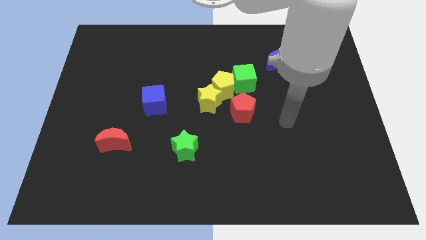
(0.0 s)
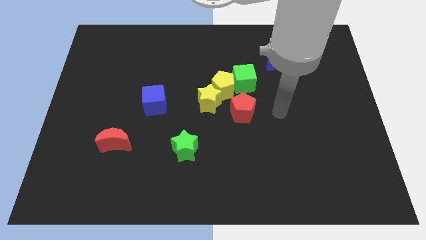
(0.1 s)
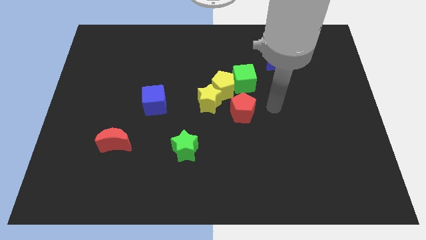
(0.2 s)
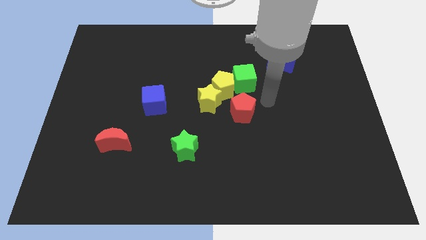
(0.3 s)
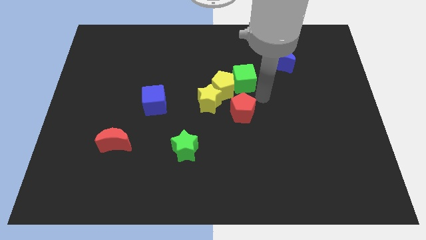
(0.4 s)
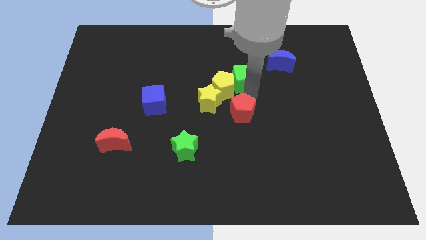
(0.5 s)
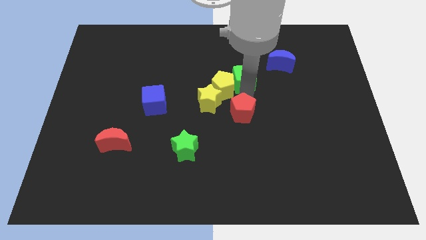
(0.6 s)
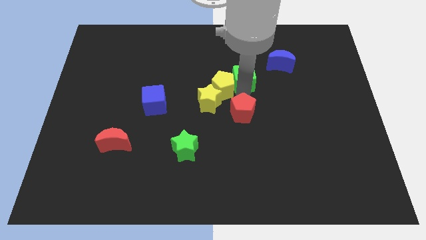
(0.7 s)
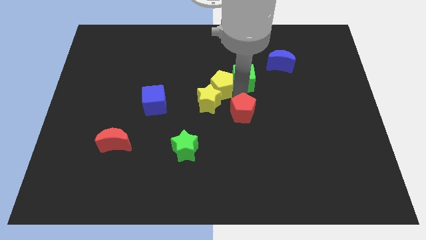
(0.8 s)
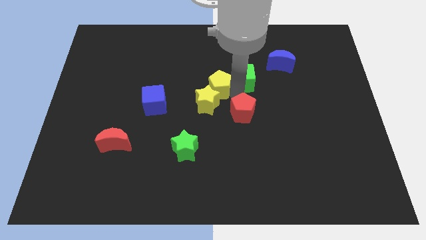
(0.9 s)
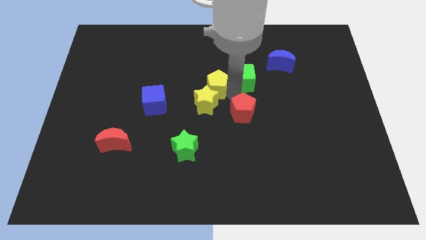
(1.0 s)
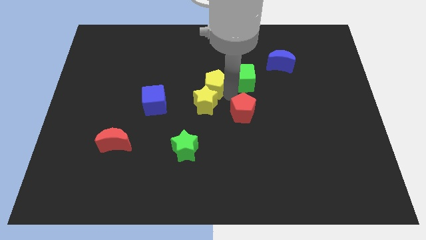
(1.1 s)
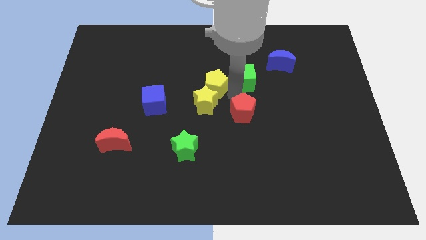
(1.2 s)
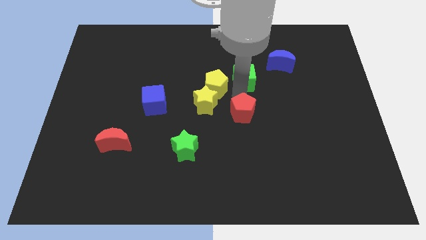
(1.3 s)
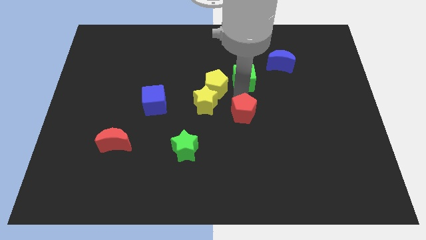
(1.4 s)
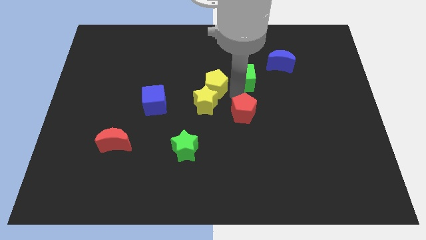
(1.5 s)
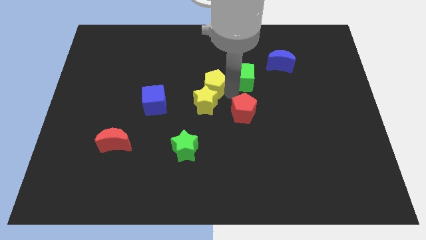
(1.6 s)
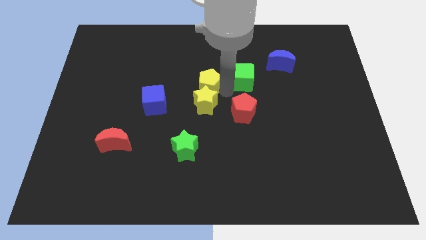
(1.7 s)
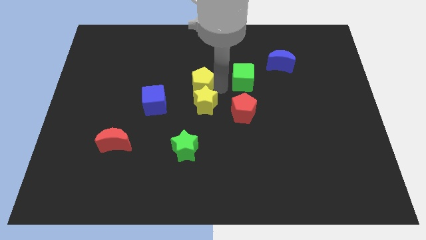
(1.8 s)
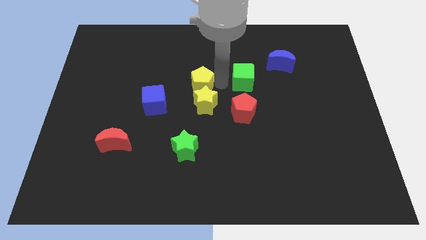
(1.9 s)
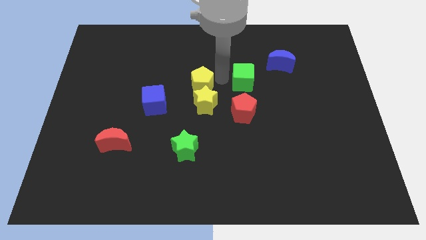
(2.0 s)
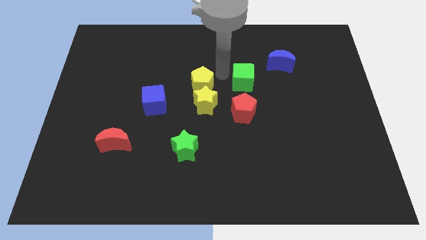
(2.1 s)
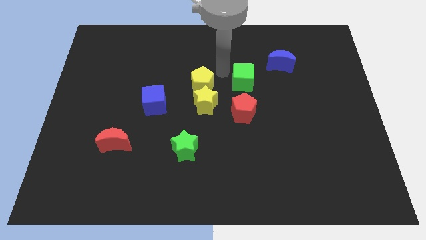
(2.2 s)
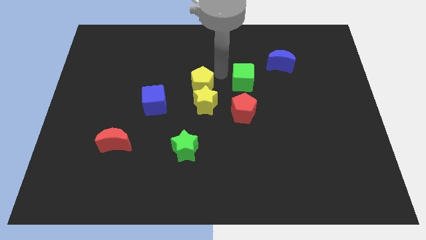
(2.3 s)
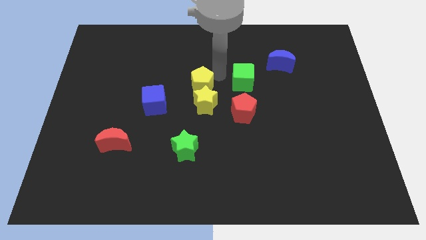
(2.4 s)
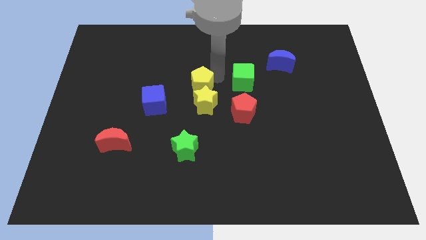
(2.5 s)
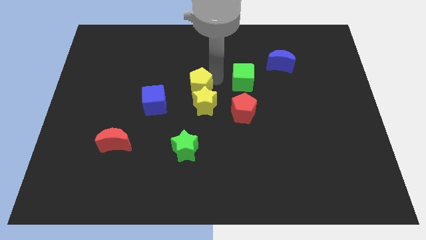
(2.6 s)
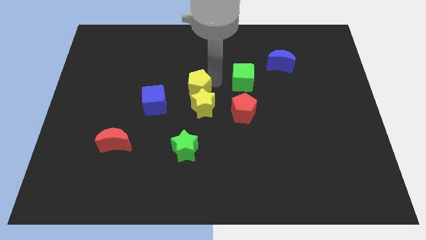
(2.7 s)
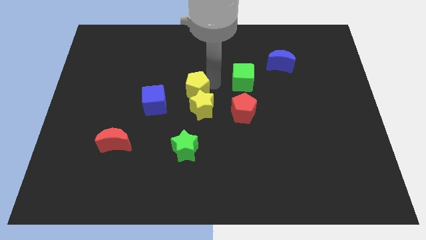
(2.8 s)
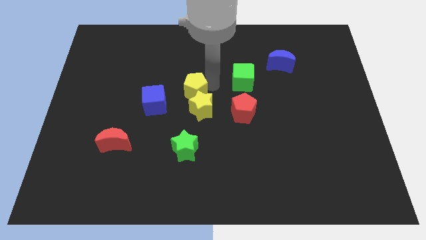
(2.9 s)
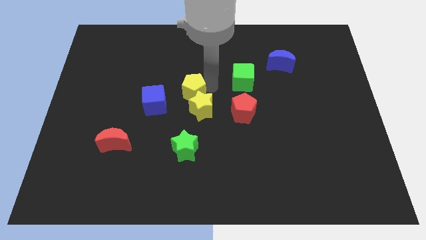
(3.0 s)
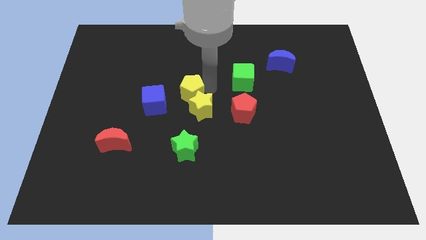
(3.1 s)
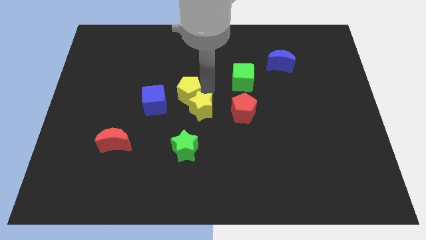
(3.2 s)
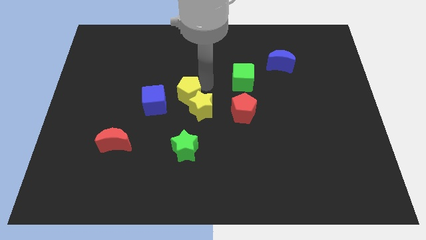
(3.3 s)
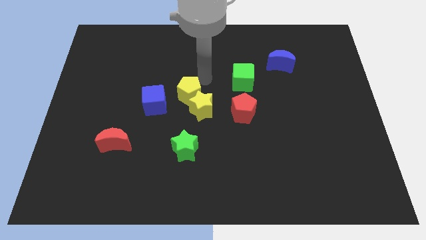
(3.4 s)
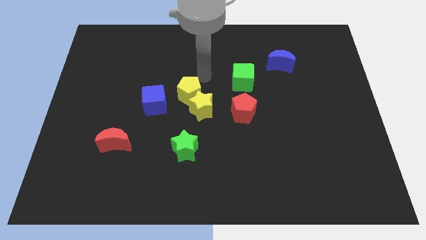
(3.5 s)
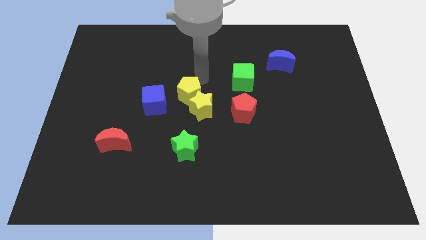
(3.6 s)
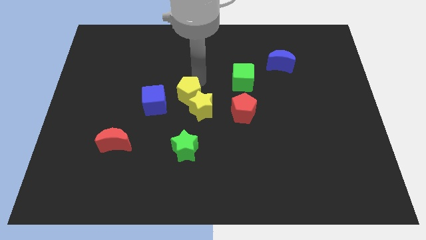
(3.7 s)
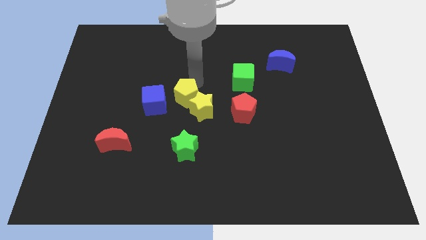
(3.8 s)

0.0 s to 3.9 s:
push the yellow pentagon downwards and to the left slightly

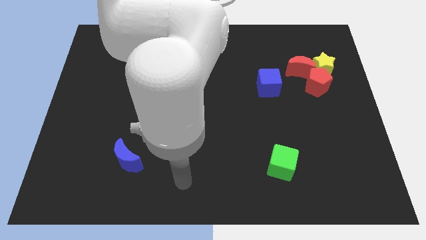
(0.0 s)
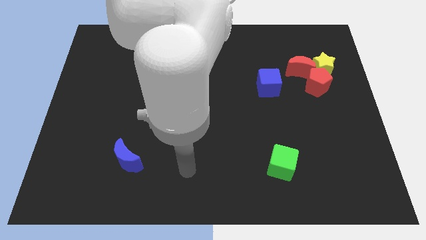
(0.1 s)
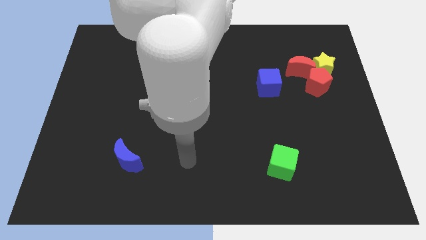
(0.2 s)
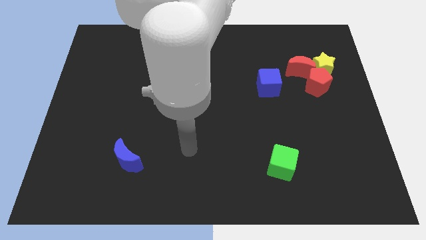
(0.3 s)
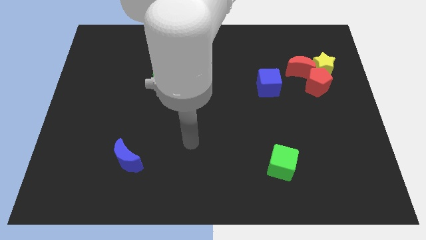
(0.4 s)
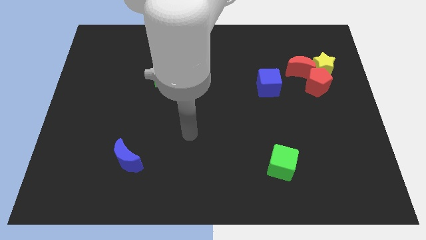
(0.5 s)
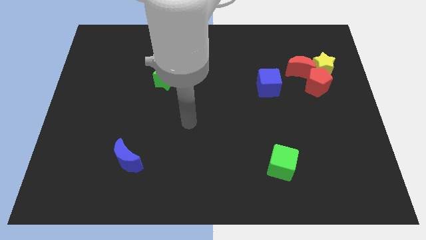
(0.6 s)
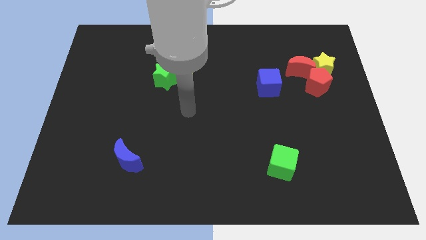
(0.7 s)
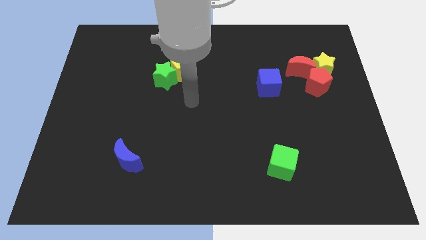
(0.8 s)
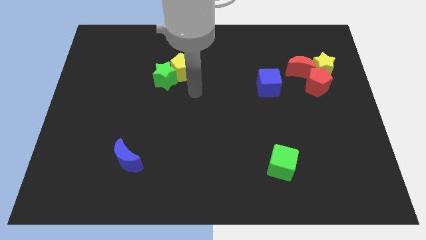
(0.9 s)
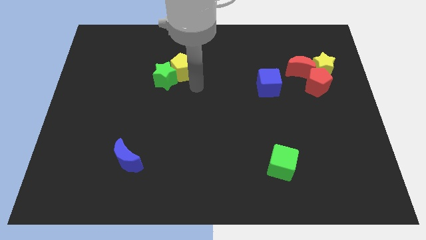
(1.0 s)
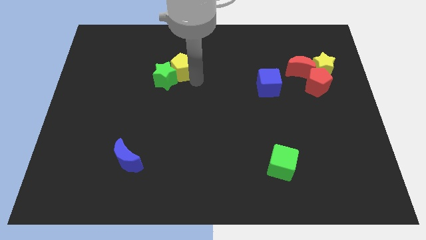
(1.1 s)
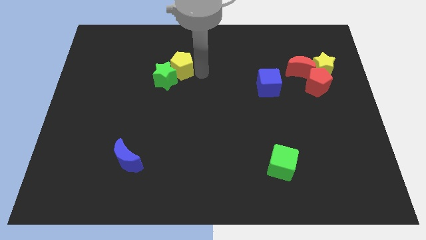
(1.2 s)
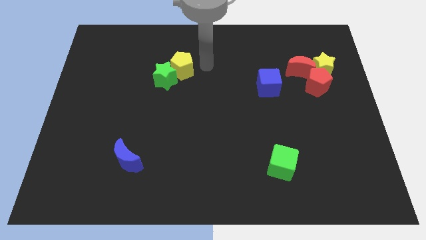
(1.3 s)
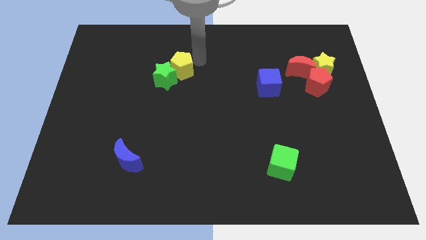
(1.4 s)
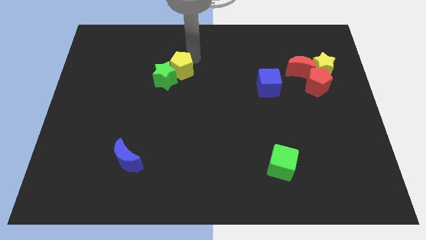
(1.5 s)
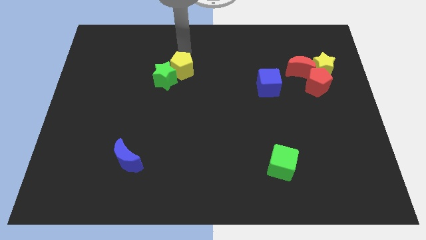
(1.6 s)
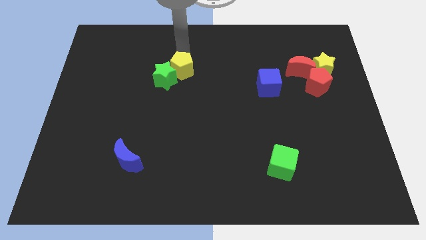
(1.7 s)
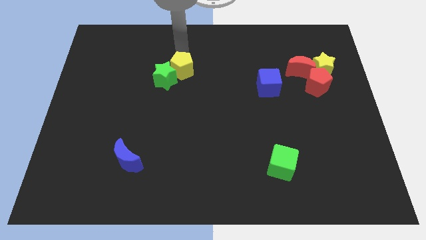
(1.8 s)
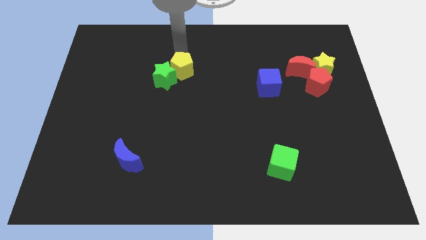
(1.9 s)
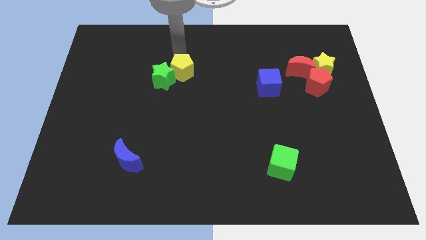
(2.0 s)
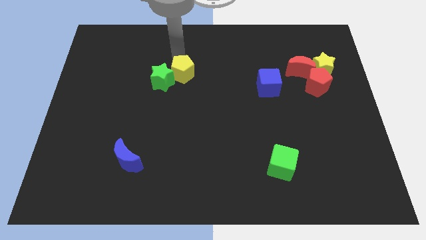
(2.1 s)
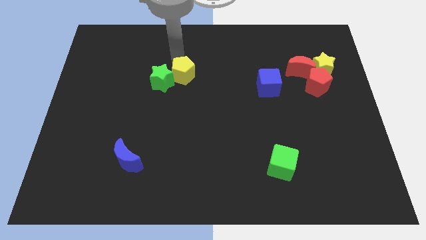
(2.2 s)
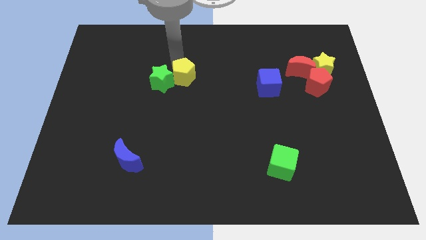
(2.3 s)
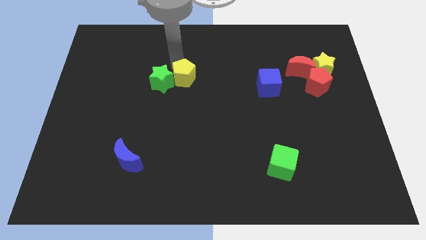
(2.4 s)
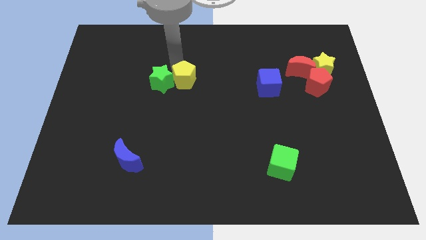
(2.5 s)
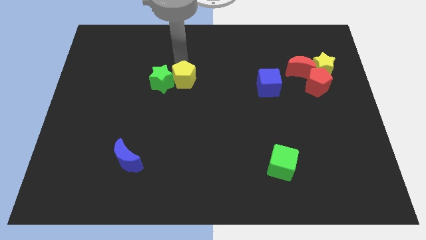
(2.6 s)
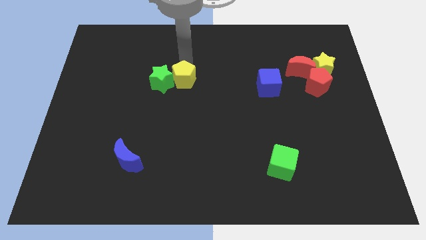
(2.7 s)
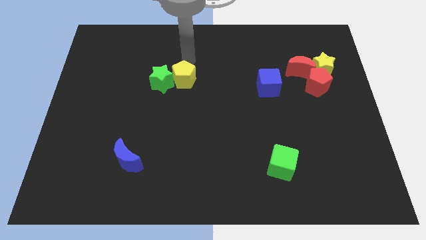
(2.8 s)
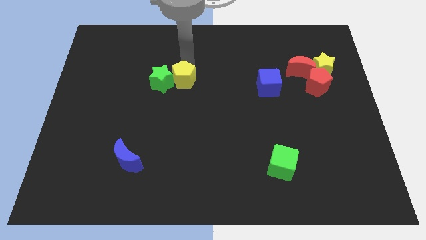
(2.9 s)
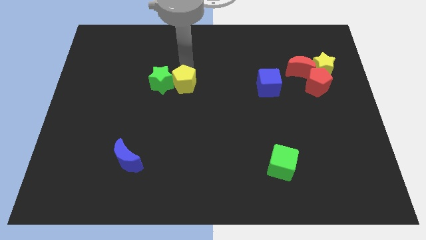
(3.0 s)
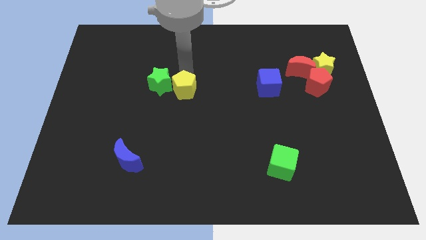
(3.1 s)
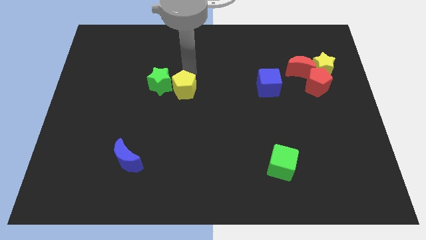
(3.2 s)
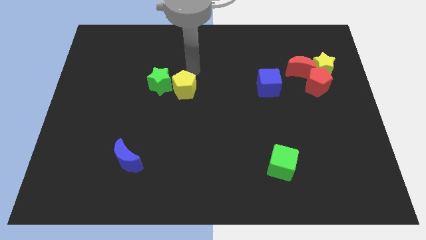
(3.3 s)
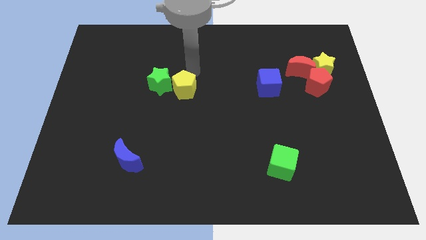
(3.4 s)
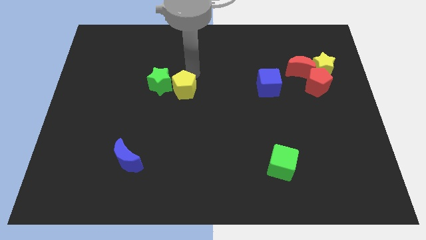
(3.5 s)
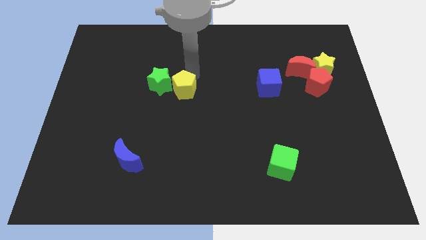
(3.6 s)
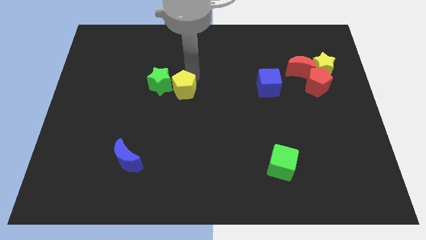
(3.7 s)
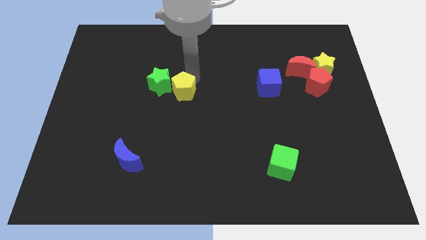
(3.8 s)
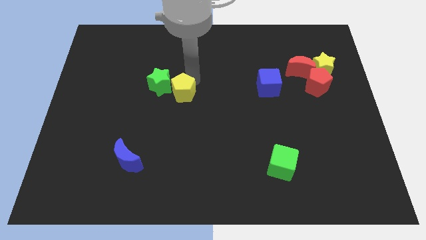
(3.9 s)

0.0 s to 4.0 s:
slightly move the yellow pentagon downwards

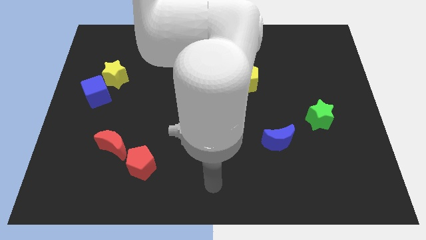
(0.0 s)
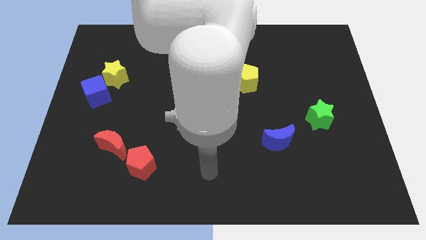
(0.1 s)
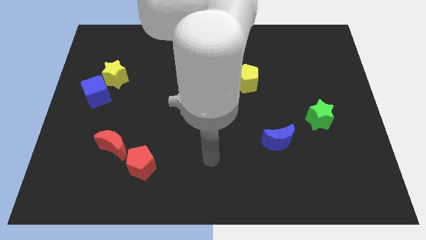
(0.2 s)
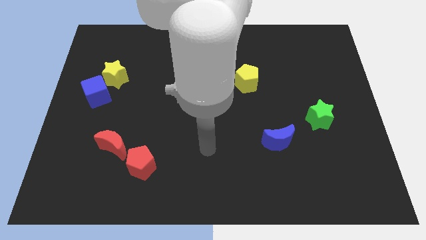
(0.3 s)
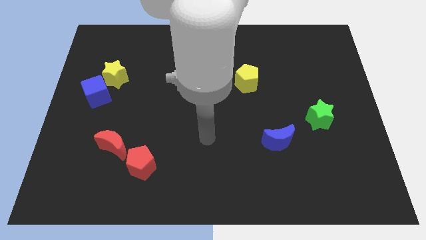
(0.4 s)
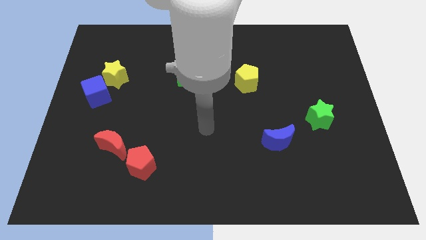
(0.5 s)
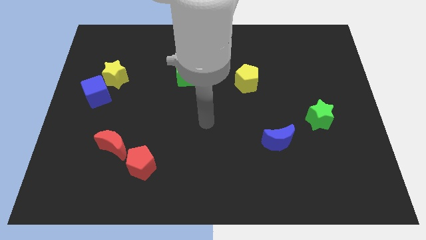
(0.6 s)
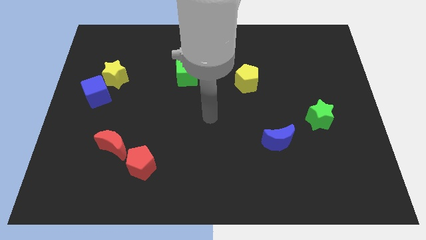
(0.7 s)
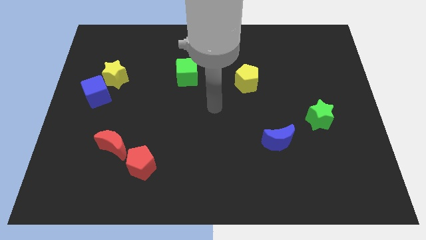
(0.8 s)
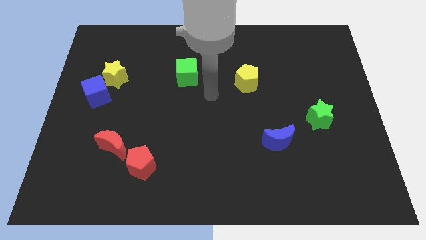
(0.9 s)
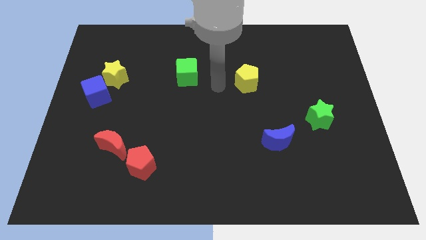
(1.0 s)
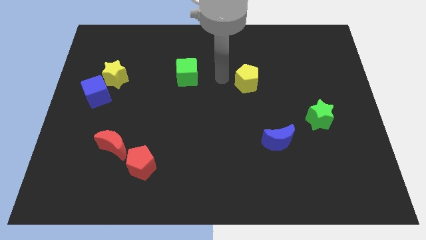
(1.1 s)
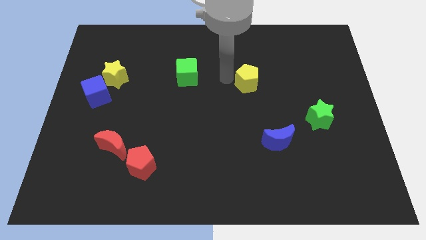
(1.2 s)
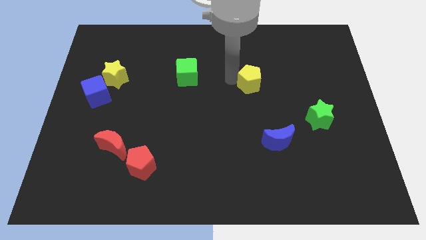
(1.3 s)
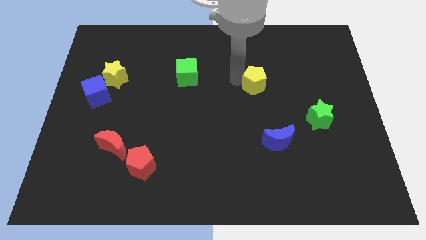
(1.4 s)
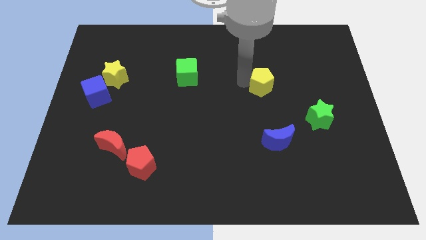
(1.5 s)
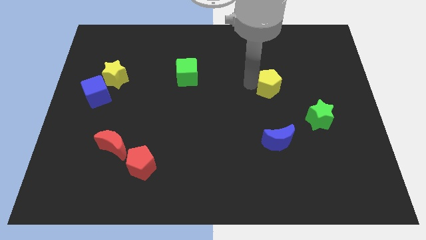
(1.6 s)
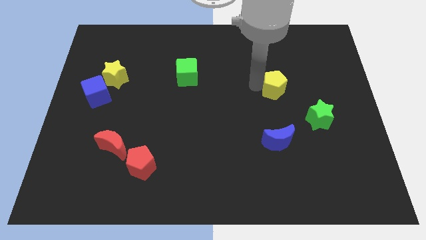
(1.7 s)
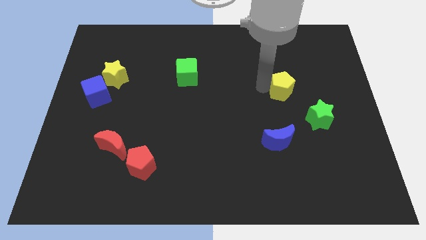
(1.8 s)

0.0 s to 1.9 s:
slightly slide the yellow pentagon right
